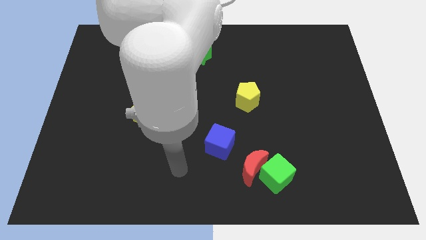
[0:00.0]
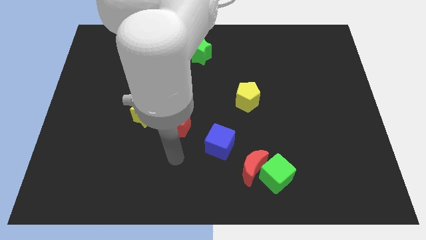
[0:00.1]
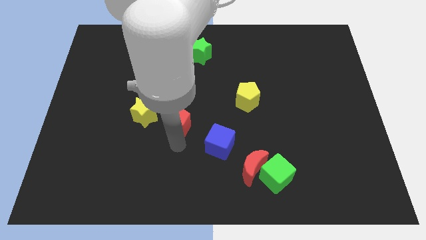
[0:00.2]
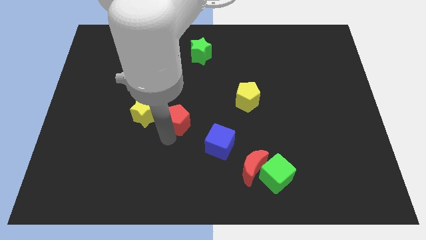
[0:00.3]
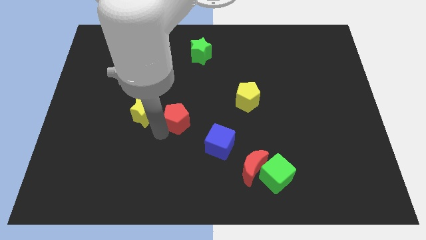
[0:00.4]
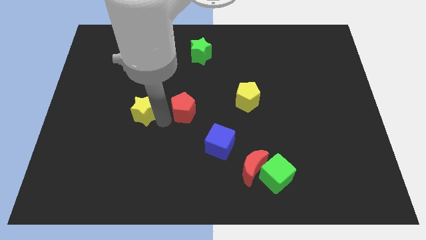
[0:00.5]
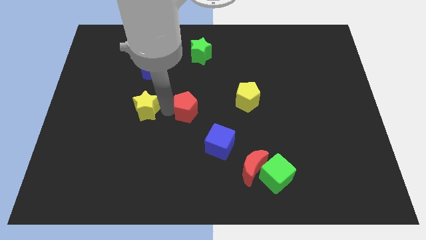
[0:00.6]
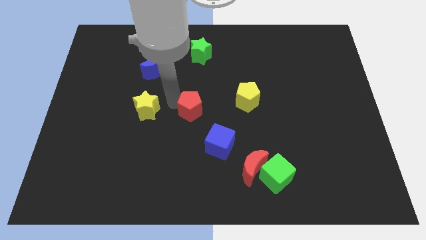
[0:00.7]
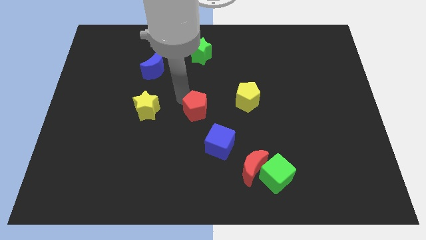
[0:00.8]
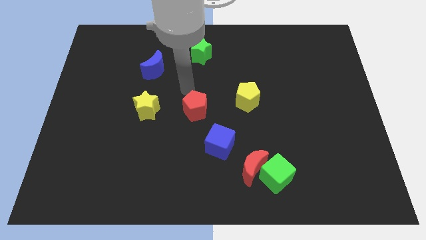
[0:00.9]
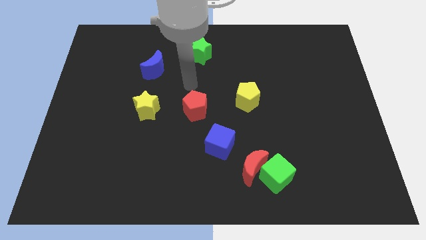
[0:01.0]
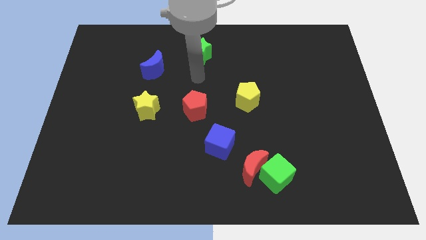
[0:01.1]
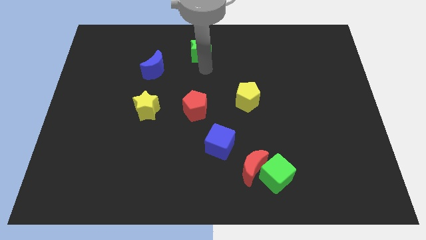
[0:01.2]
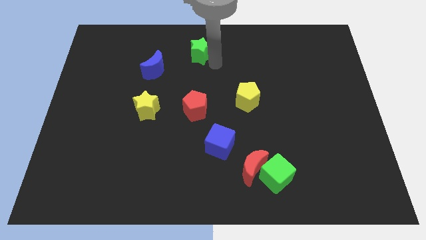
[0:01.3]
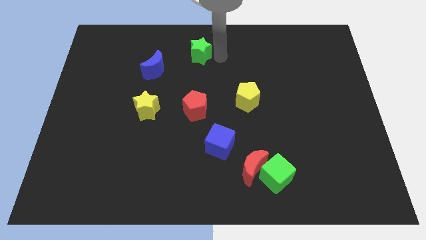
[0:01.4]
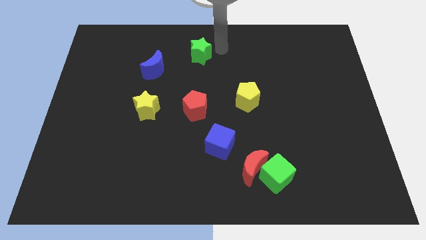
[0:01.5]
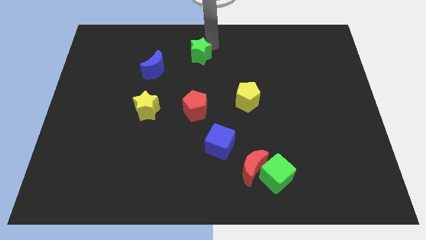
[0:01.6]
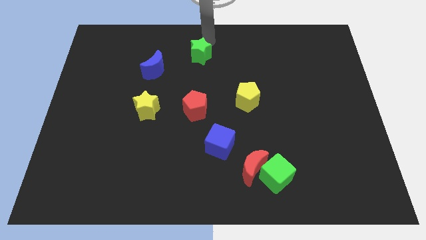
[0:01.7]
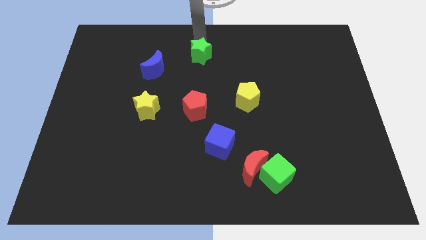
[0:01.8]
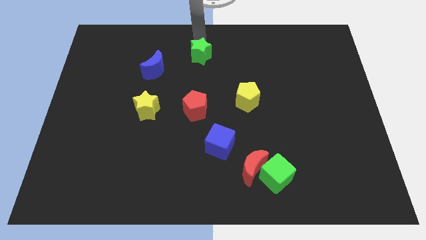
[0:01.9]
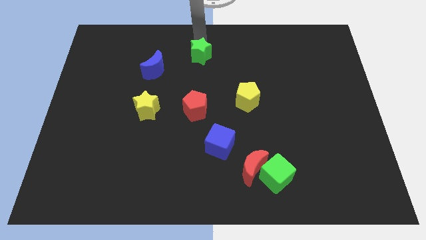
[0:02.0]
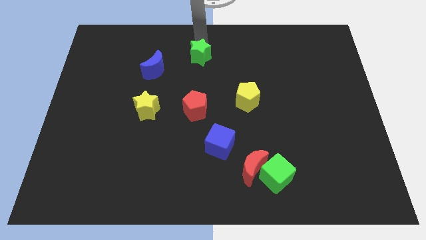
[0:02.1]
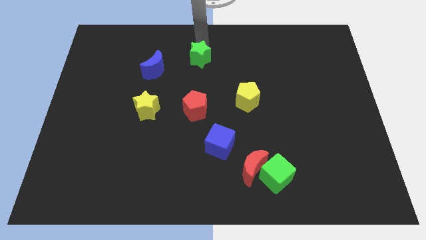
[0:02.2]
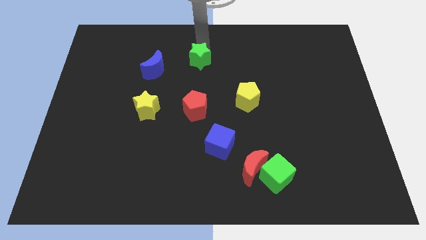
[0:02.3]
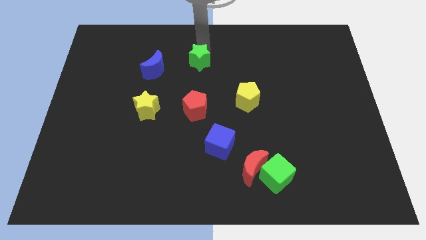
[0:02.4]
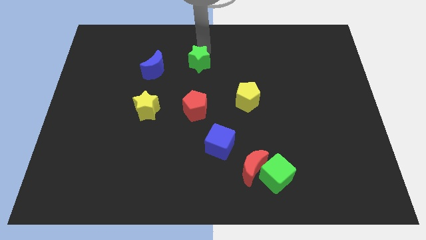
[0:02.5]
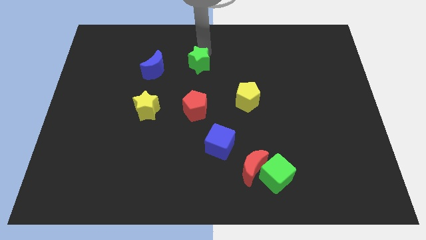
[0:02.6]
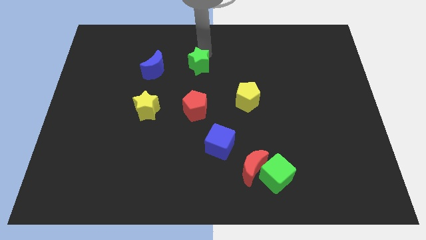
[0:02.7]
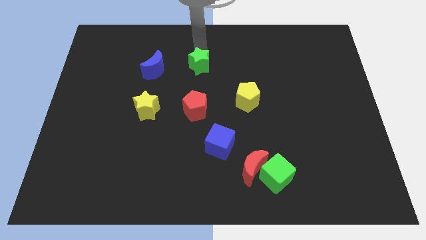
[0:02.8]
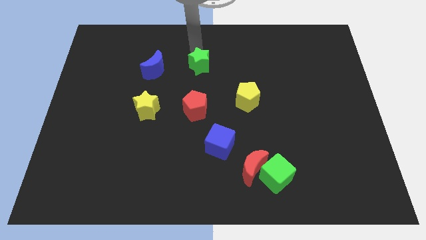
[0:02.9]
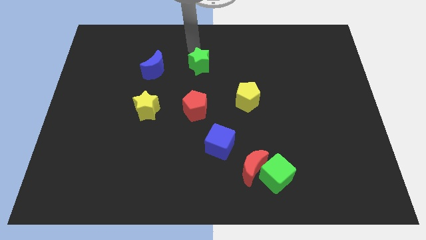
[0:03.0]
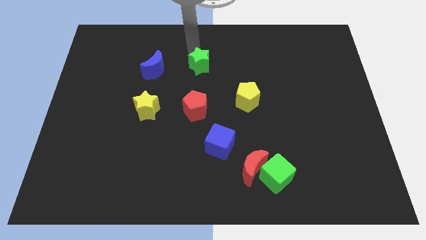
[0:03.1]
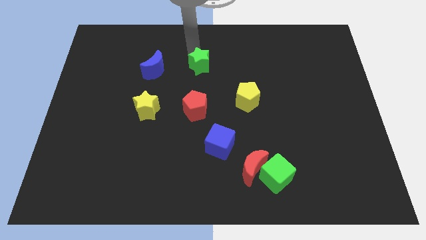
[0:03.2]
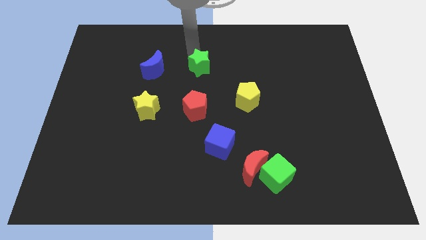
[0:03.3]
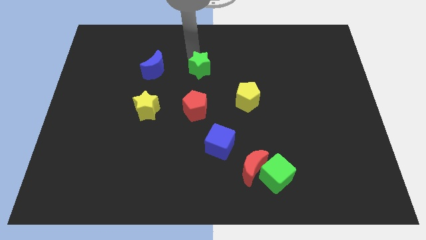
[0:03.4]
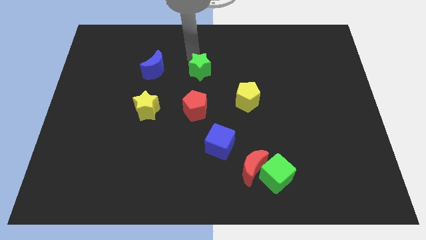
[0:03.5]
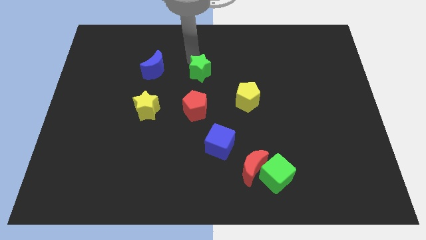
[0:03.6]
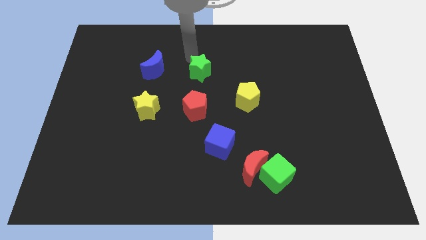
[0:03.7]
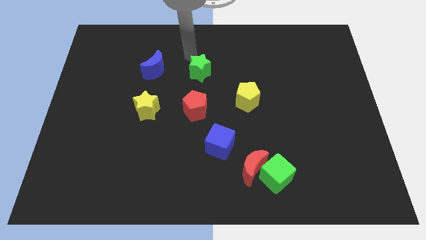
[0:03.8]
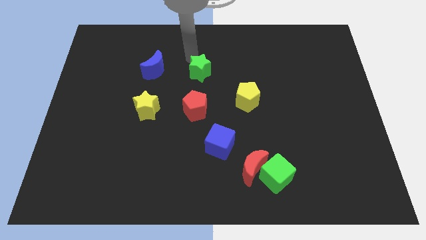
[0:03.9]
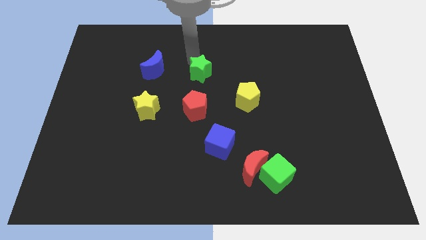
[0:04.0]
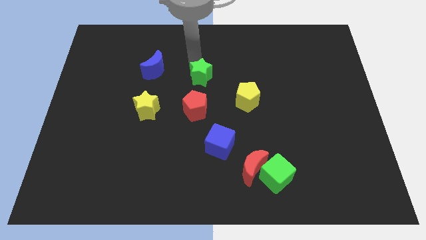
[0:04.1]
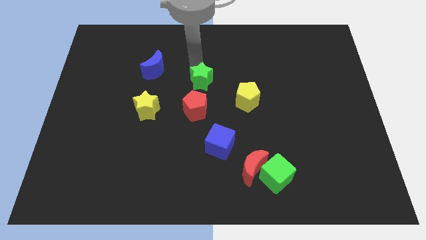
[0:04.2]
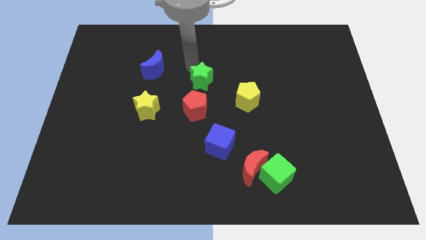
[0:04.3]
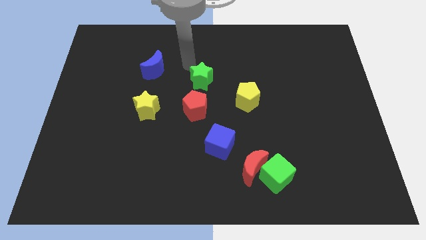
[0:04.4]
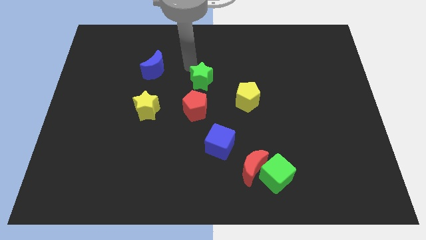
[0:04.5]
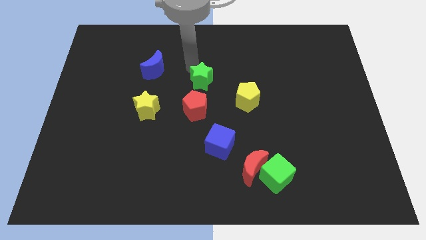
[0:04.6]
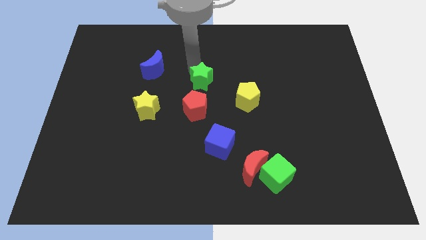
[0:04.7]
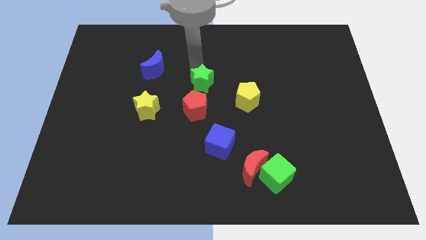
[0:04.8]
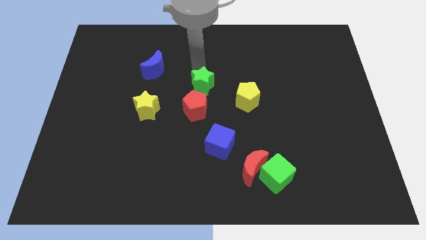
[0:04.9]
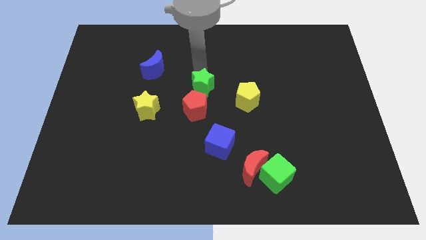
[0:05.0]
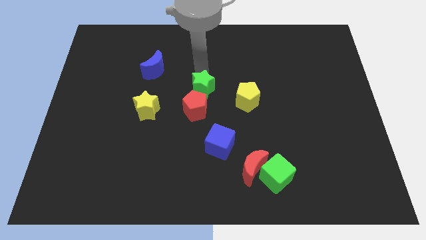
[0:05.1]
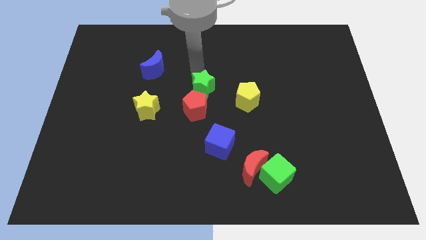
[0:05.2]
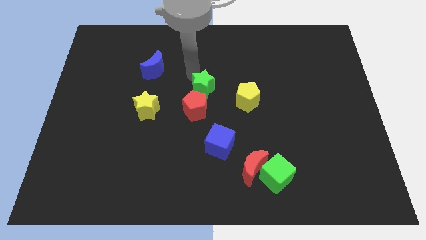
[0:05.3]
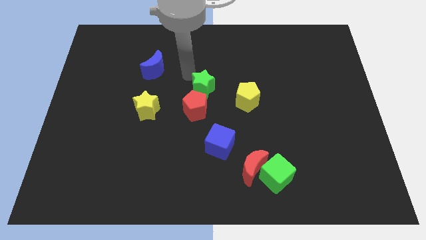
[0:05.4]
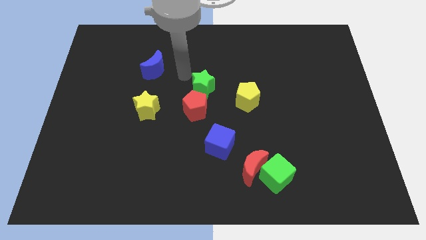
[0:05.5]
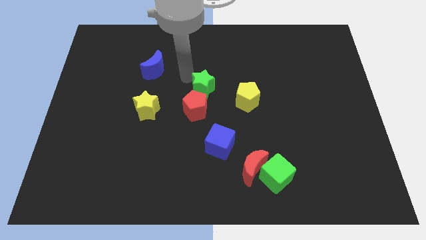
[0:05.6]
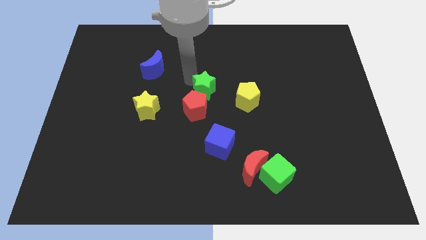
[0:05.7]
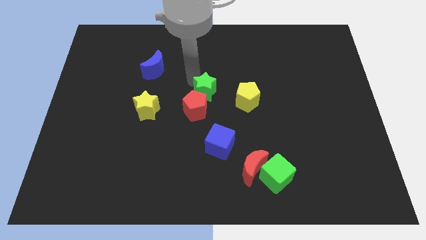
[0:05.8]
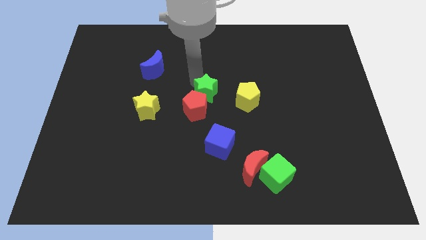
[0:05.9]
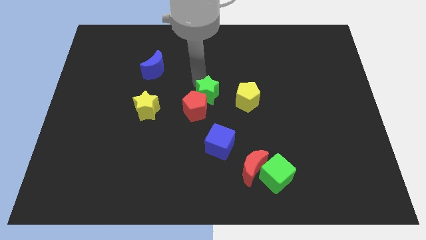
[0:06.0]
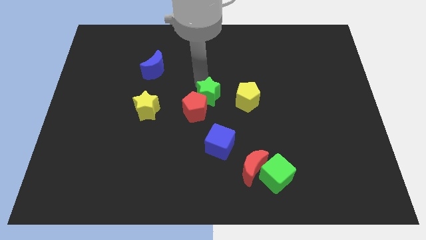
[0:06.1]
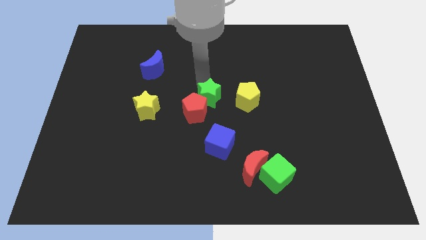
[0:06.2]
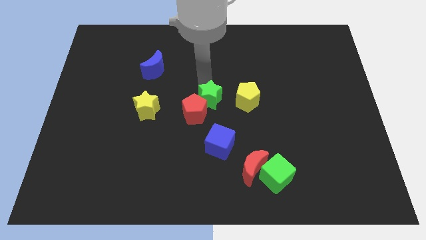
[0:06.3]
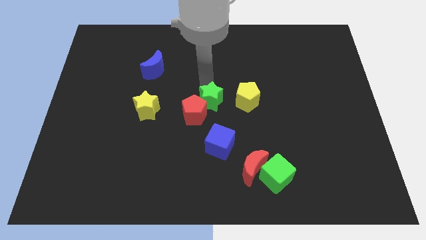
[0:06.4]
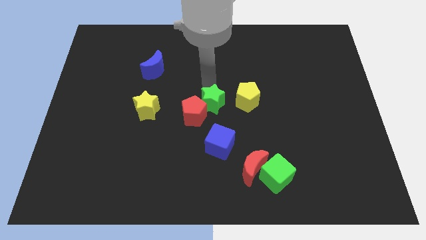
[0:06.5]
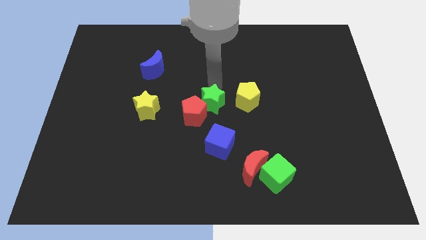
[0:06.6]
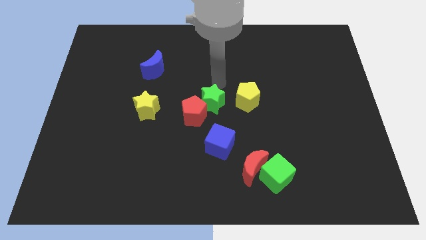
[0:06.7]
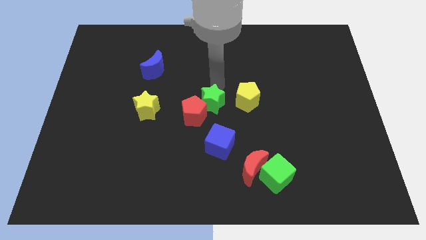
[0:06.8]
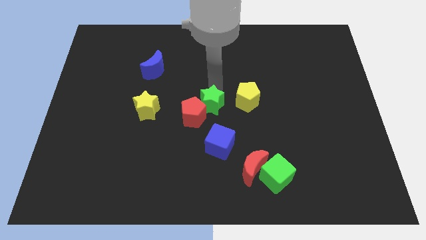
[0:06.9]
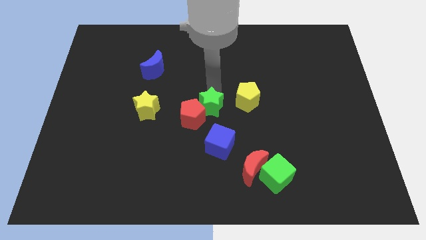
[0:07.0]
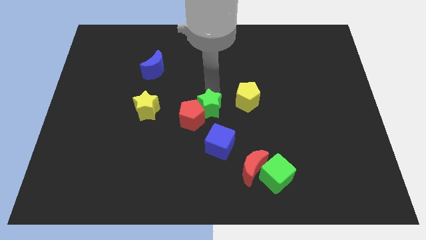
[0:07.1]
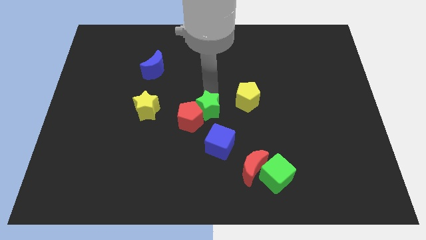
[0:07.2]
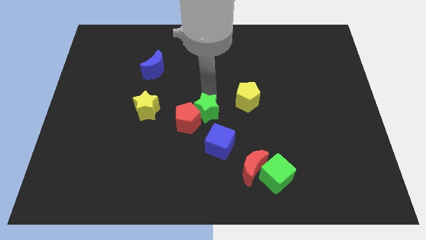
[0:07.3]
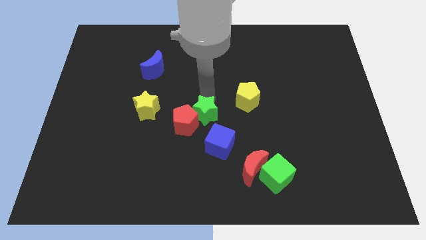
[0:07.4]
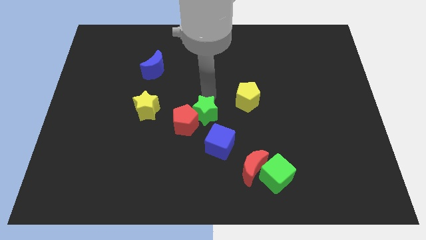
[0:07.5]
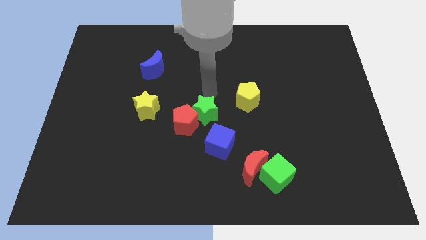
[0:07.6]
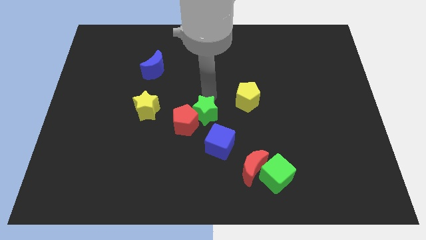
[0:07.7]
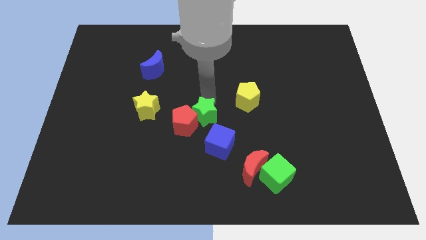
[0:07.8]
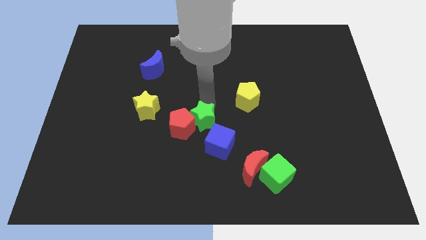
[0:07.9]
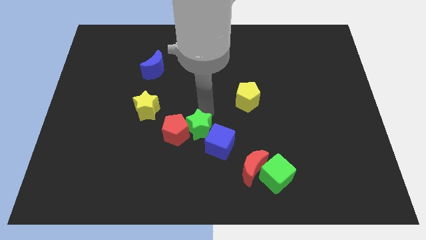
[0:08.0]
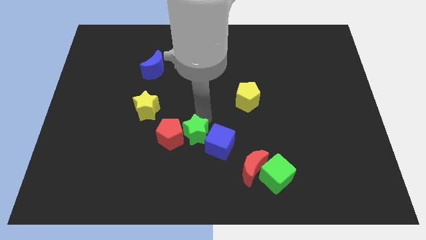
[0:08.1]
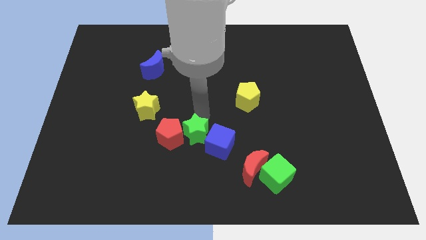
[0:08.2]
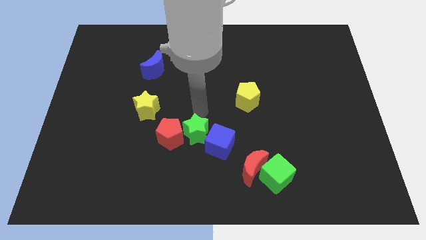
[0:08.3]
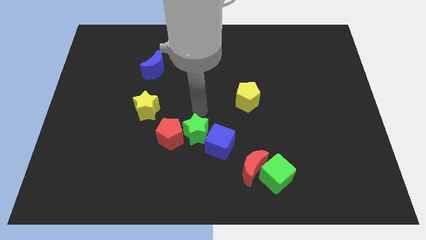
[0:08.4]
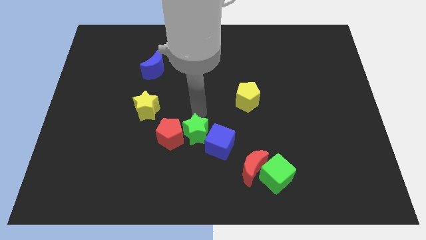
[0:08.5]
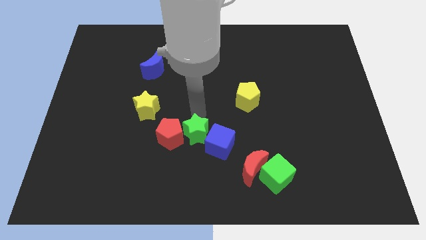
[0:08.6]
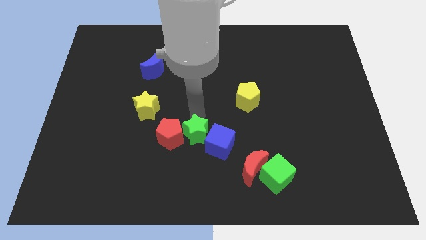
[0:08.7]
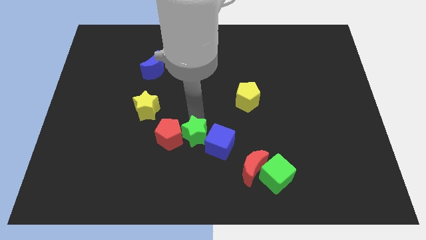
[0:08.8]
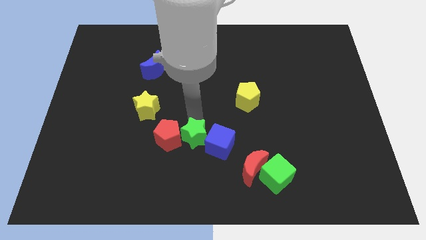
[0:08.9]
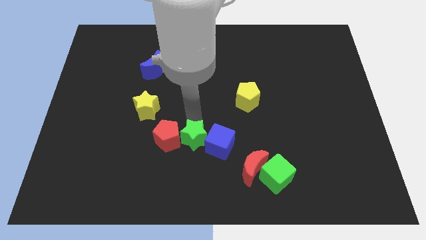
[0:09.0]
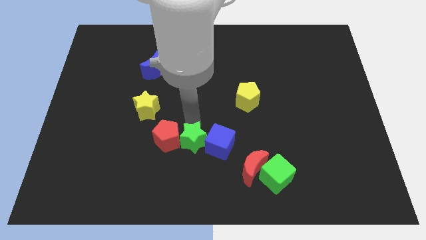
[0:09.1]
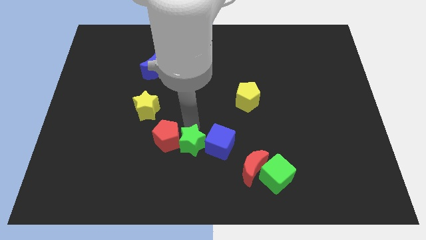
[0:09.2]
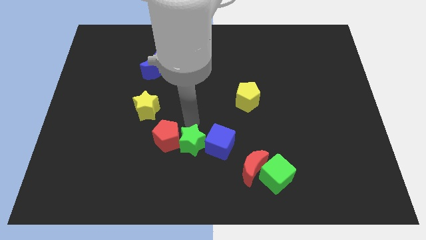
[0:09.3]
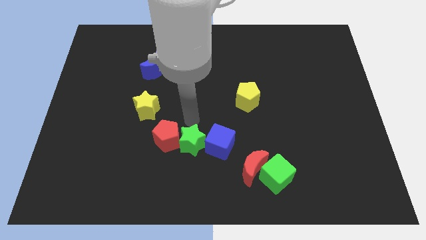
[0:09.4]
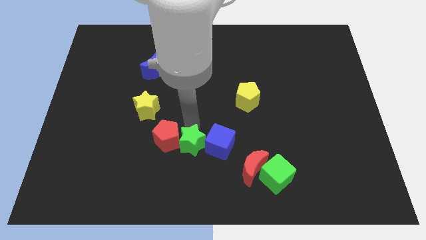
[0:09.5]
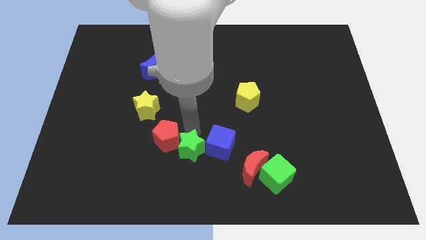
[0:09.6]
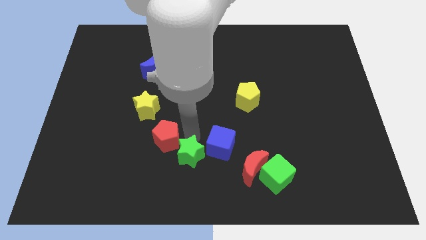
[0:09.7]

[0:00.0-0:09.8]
put the green star to the bottom
